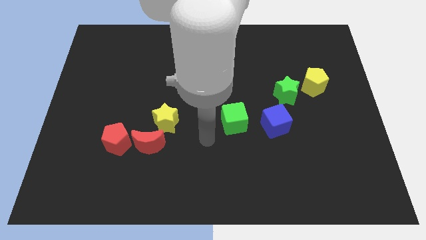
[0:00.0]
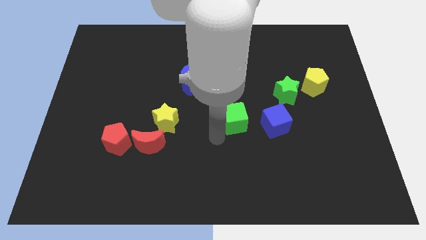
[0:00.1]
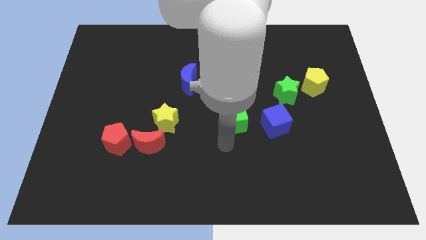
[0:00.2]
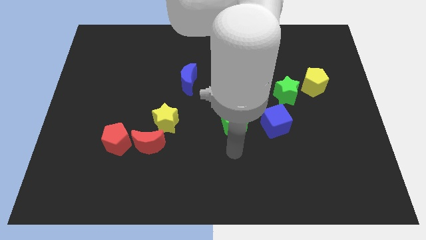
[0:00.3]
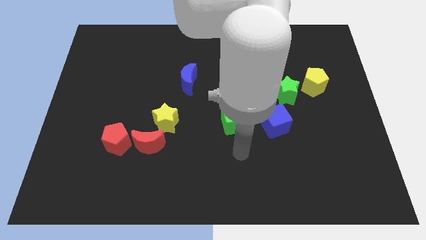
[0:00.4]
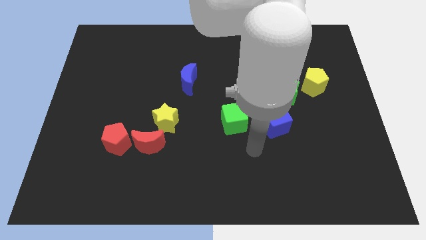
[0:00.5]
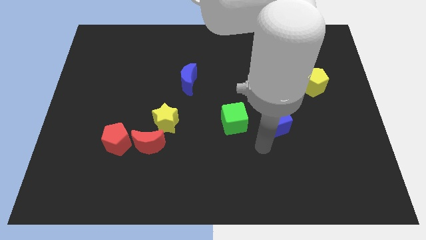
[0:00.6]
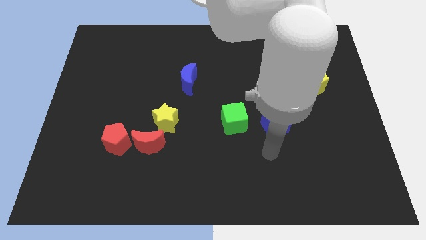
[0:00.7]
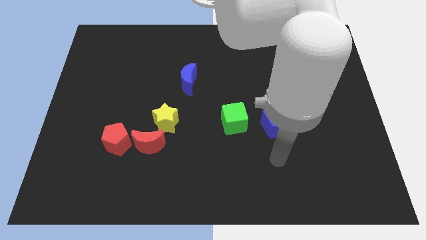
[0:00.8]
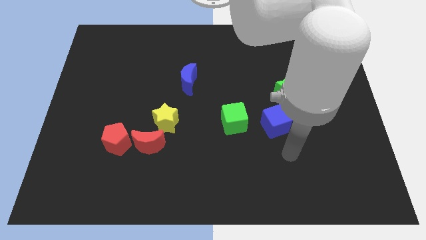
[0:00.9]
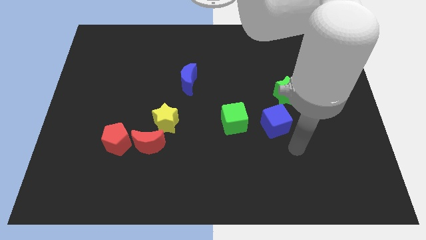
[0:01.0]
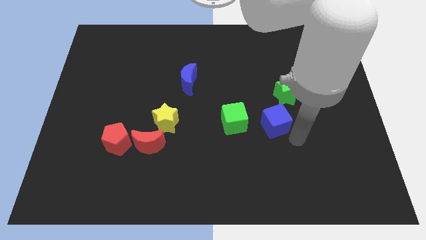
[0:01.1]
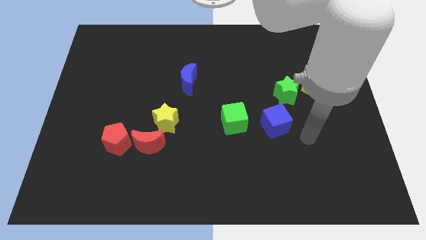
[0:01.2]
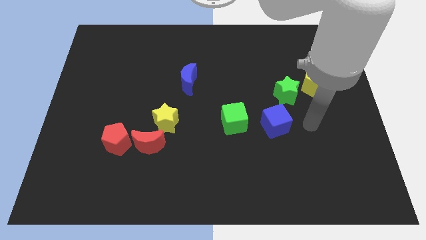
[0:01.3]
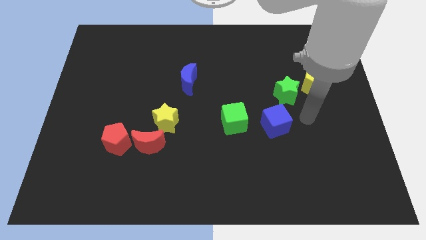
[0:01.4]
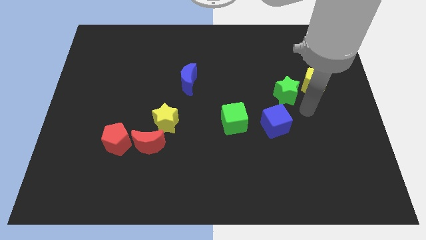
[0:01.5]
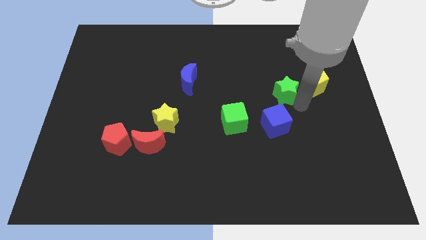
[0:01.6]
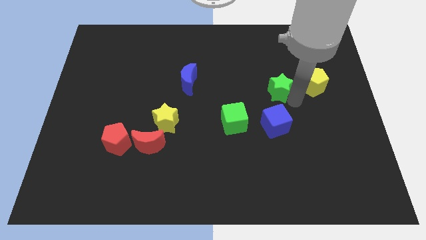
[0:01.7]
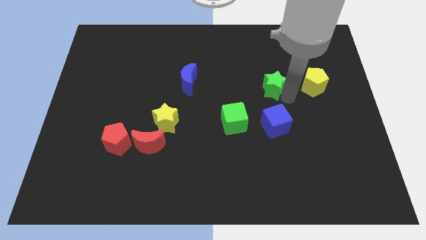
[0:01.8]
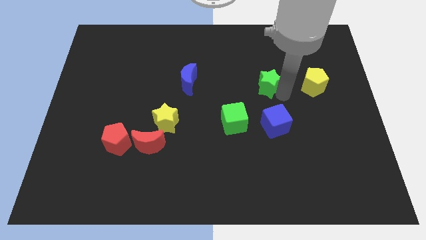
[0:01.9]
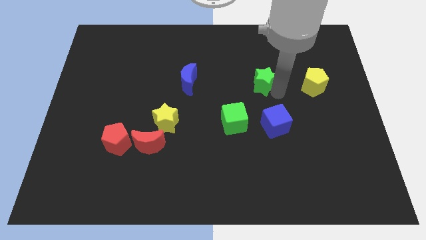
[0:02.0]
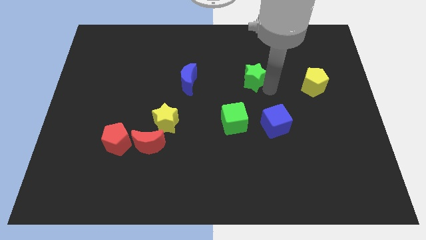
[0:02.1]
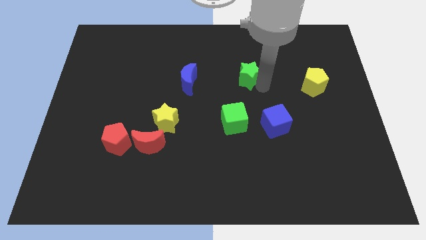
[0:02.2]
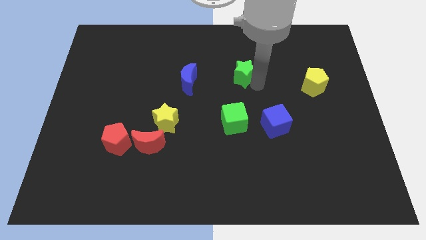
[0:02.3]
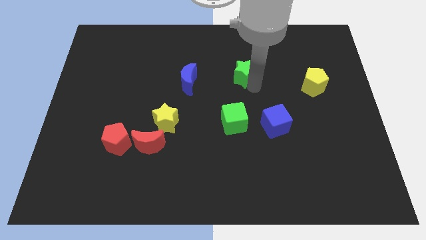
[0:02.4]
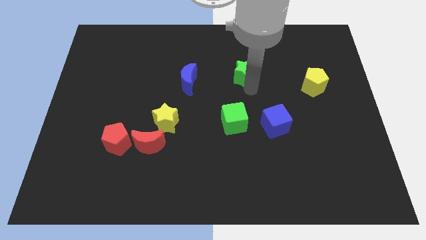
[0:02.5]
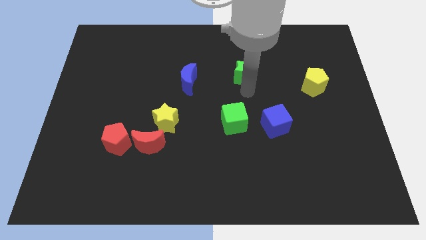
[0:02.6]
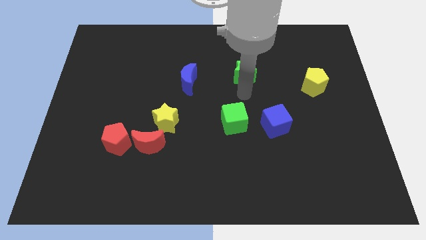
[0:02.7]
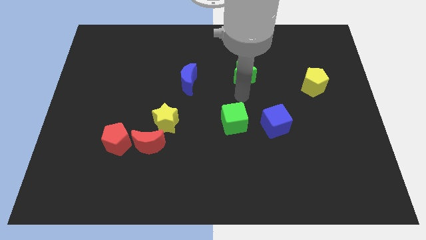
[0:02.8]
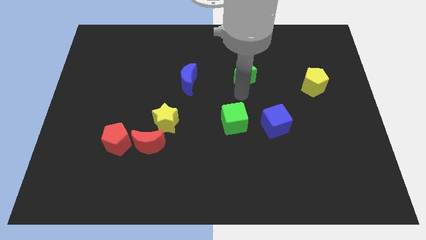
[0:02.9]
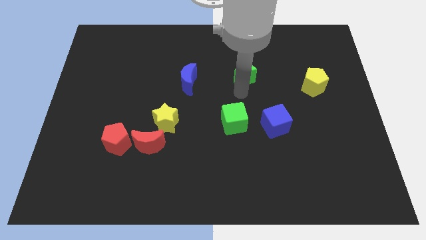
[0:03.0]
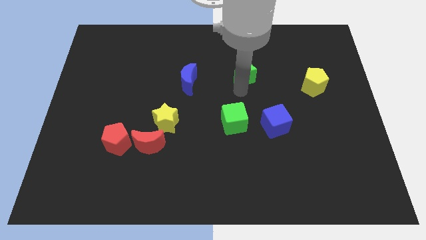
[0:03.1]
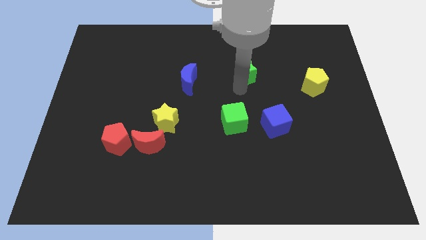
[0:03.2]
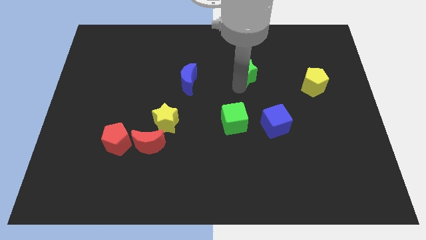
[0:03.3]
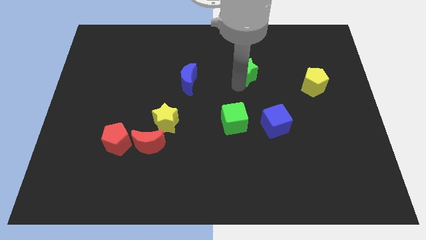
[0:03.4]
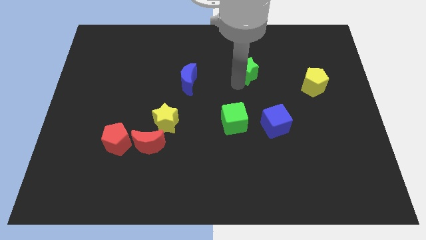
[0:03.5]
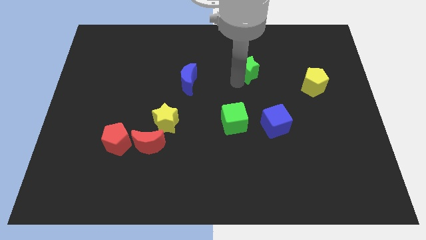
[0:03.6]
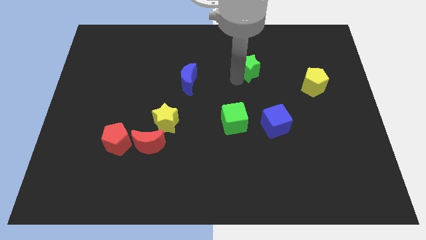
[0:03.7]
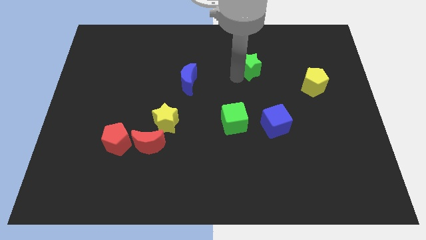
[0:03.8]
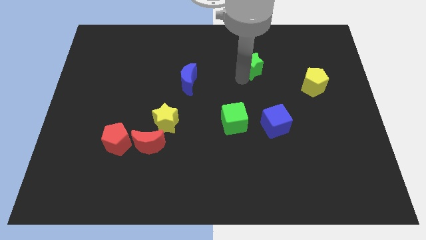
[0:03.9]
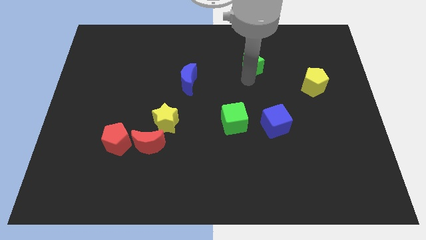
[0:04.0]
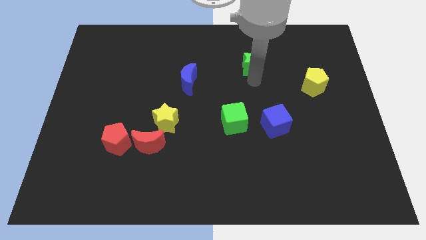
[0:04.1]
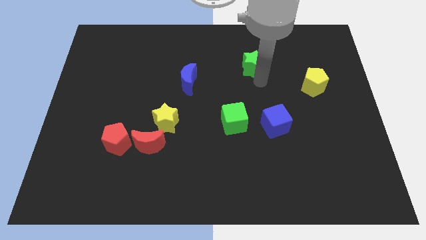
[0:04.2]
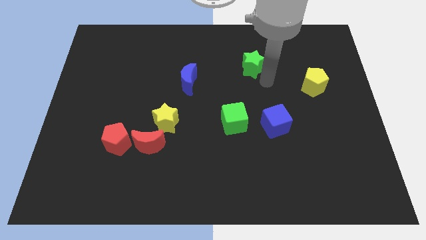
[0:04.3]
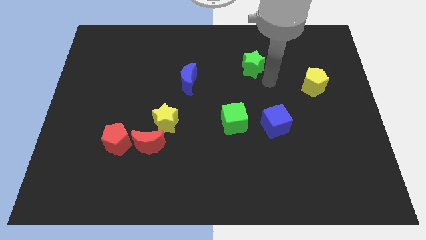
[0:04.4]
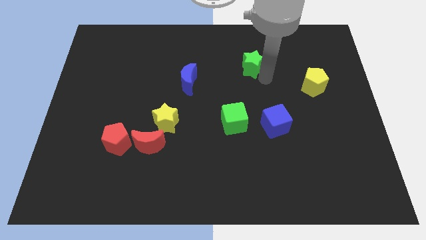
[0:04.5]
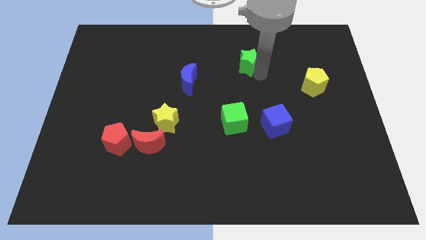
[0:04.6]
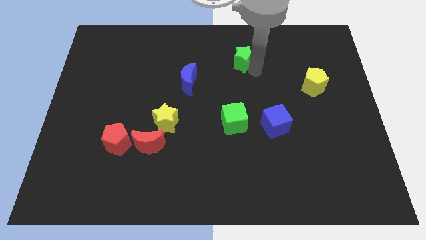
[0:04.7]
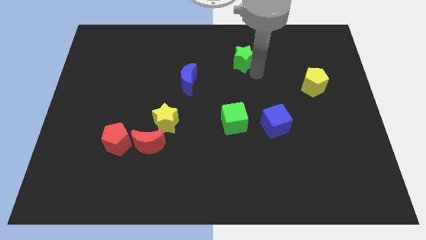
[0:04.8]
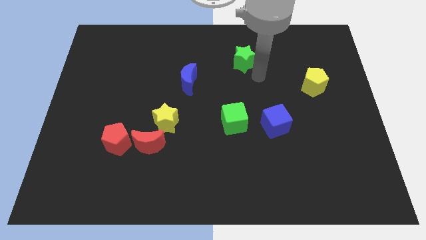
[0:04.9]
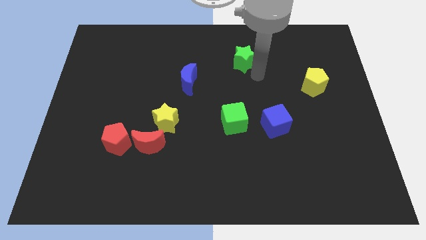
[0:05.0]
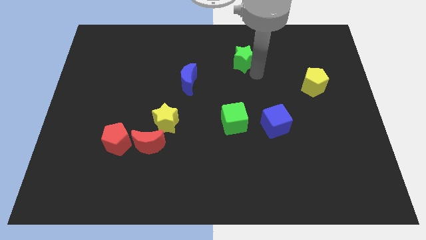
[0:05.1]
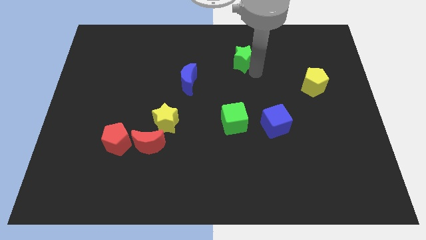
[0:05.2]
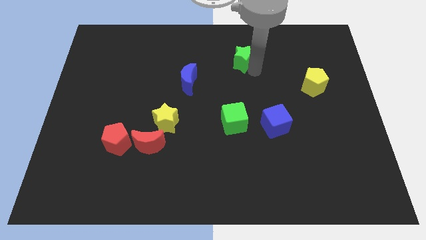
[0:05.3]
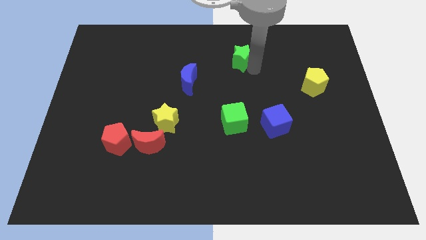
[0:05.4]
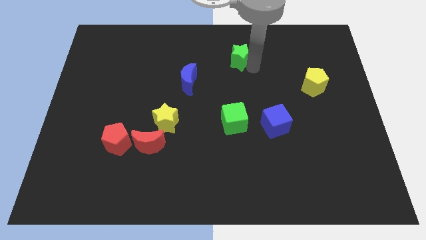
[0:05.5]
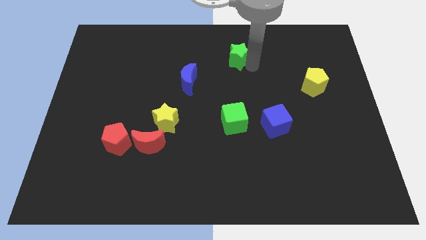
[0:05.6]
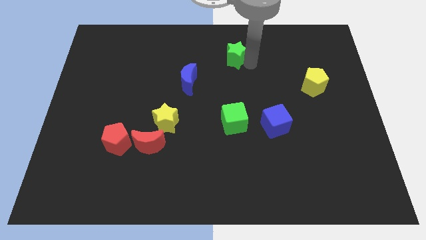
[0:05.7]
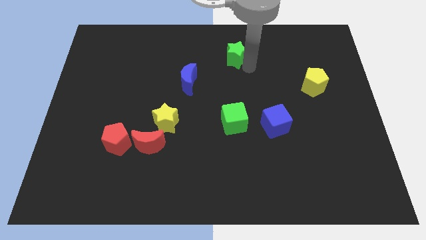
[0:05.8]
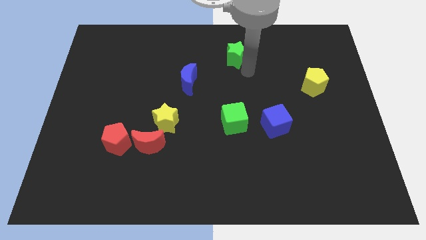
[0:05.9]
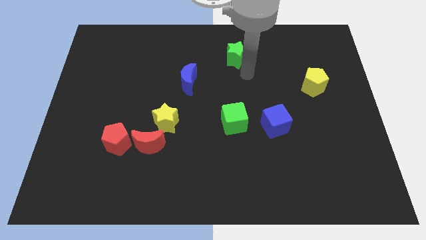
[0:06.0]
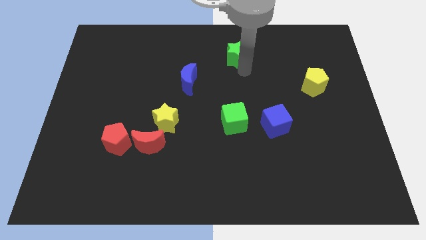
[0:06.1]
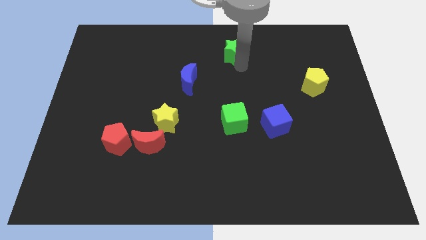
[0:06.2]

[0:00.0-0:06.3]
move the green star to the top
